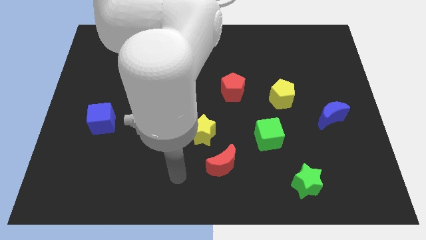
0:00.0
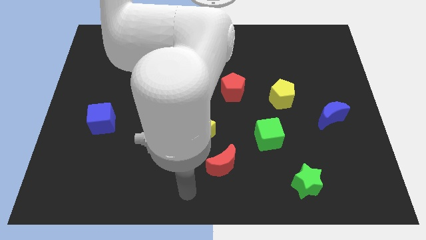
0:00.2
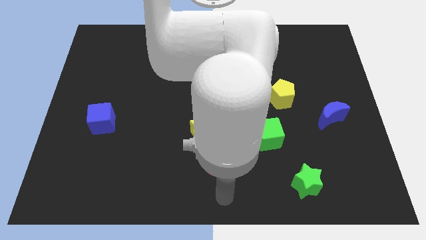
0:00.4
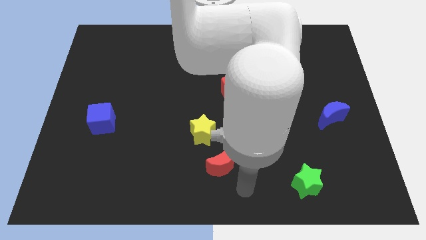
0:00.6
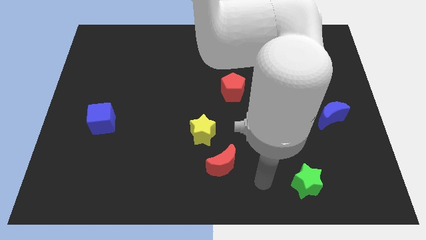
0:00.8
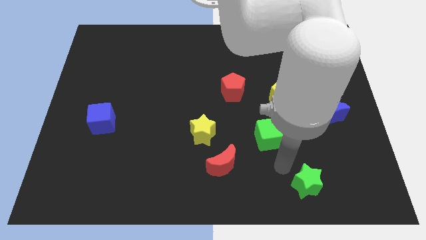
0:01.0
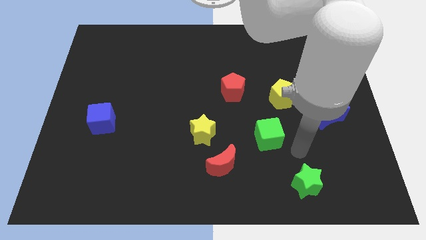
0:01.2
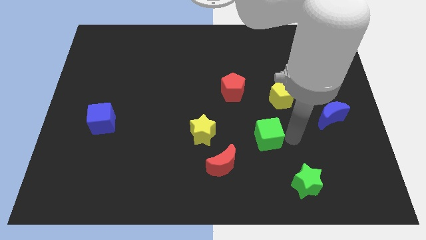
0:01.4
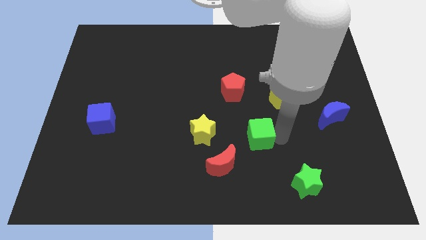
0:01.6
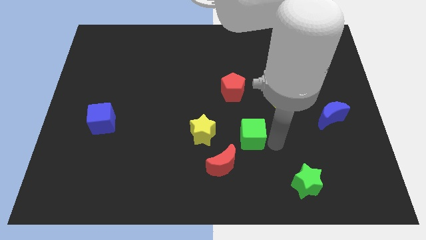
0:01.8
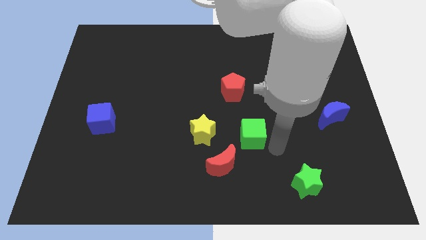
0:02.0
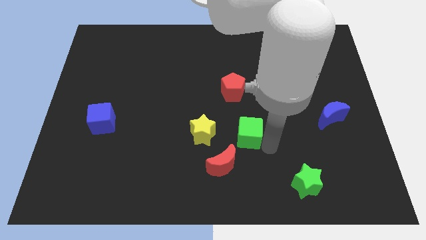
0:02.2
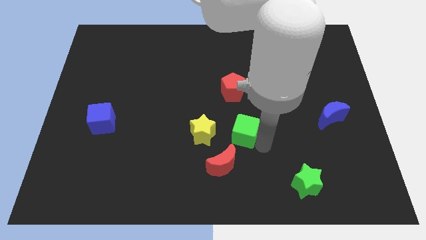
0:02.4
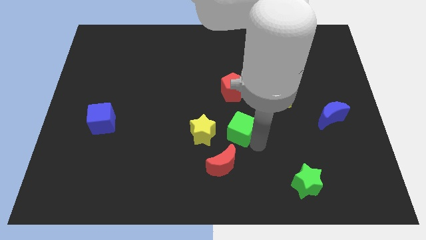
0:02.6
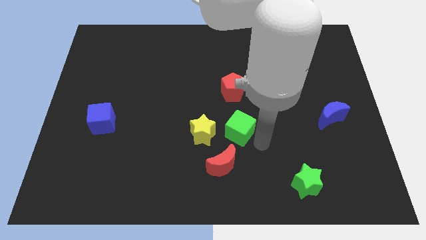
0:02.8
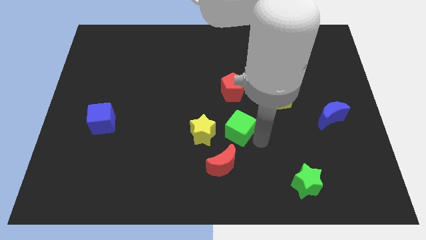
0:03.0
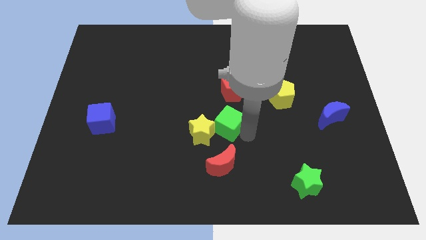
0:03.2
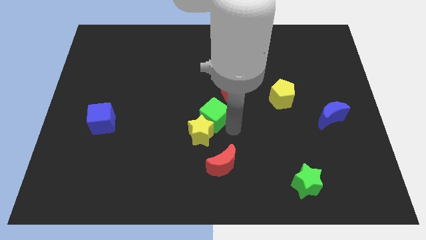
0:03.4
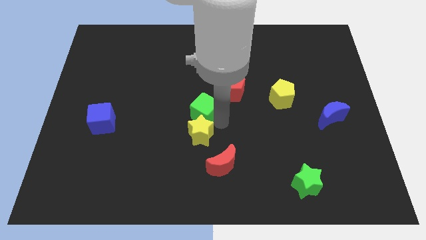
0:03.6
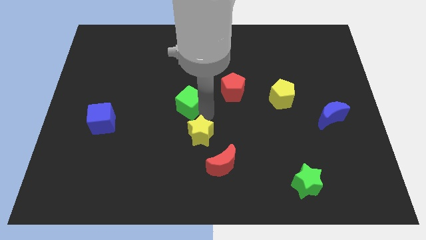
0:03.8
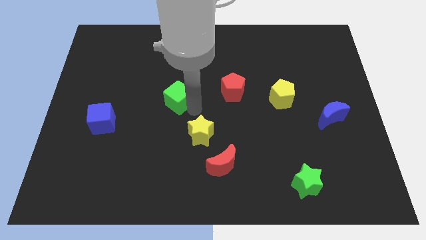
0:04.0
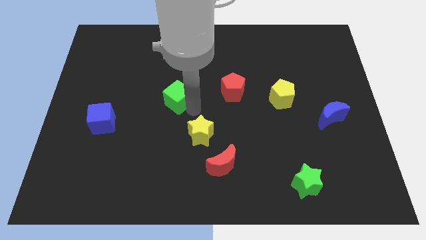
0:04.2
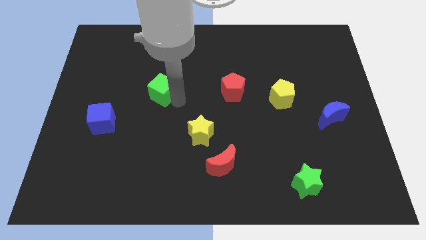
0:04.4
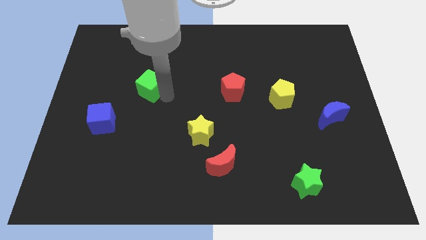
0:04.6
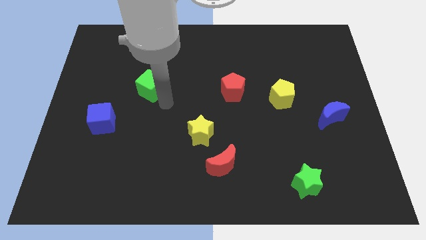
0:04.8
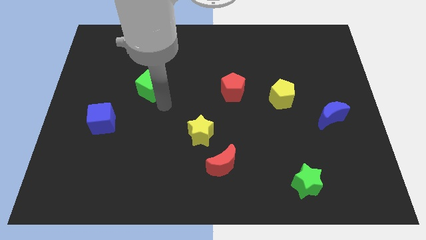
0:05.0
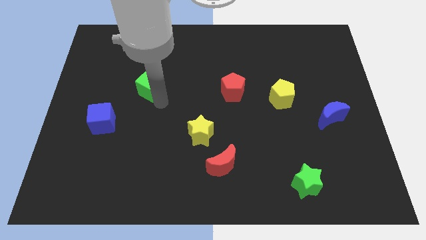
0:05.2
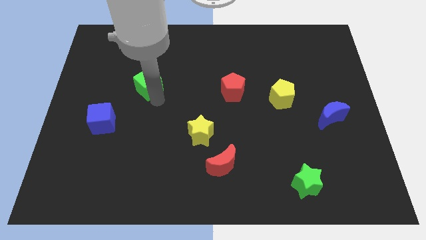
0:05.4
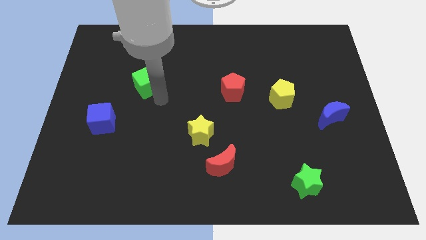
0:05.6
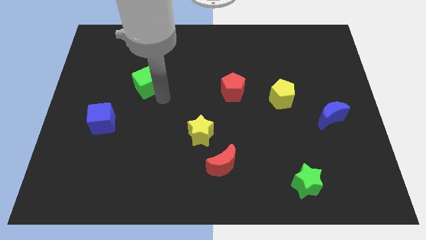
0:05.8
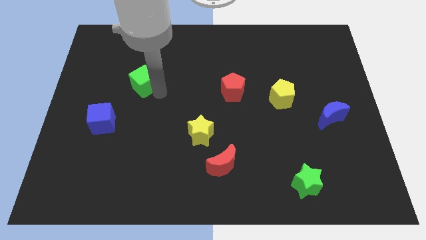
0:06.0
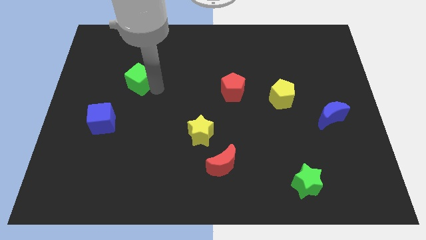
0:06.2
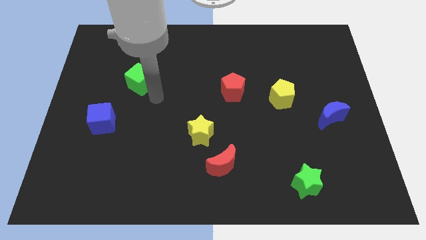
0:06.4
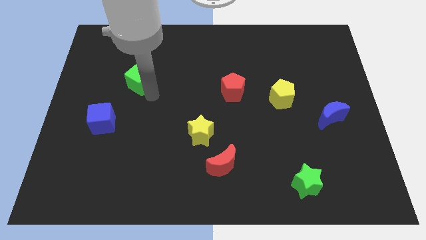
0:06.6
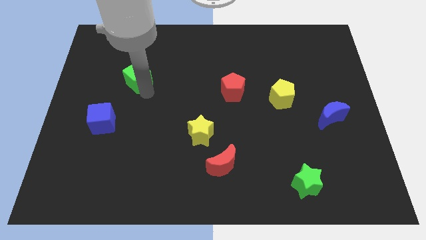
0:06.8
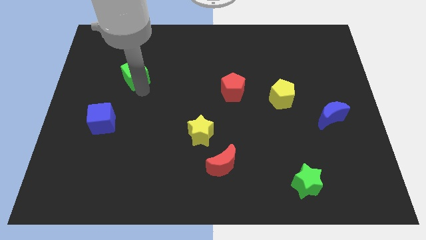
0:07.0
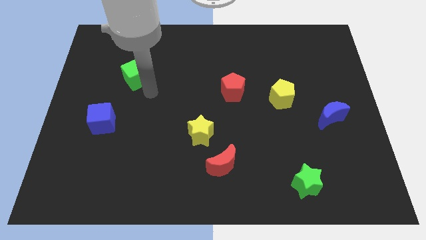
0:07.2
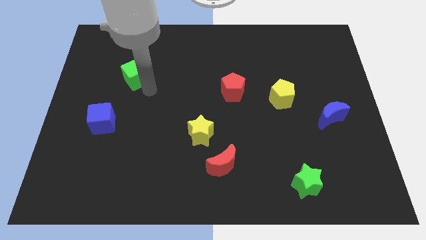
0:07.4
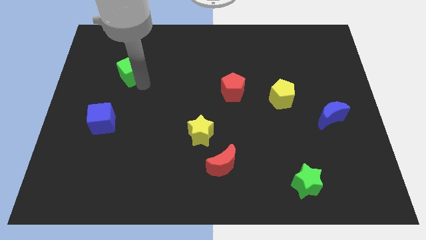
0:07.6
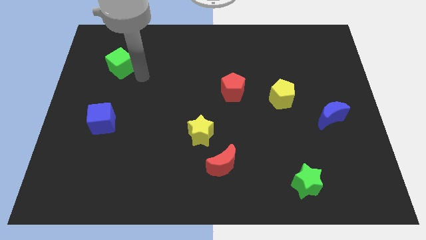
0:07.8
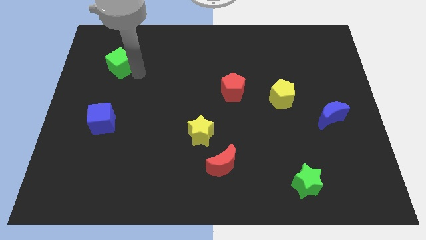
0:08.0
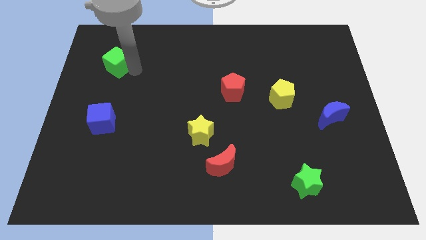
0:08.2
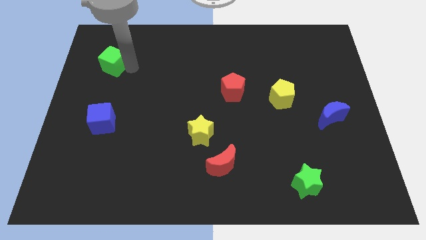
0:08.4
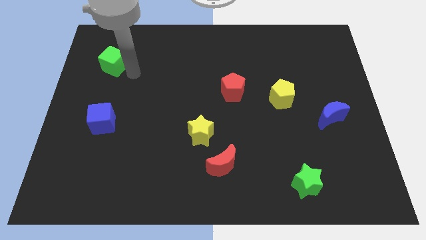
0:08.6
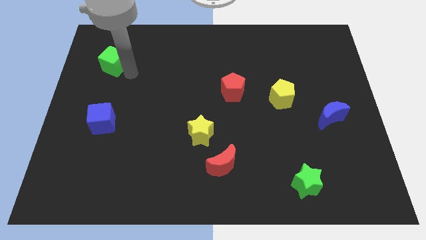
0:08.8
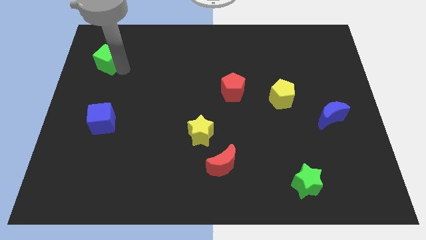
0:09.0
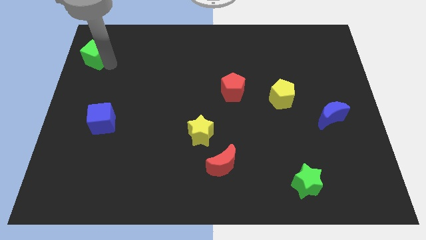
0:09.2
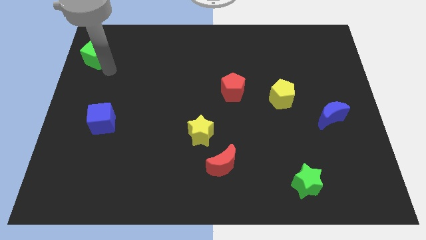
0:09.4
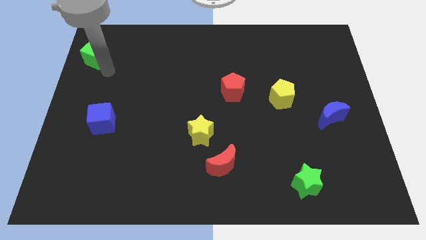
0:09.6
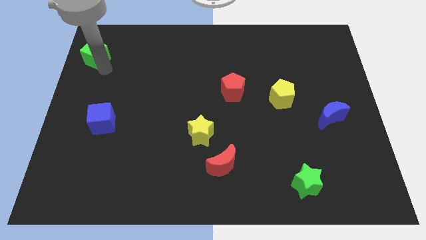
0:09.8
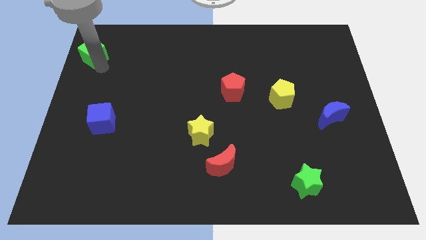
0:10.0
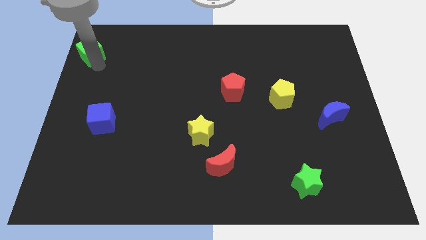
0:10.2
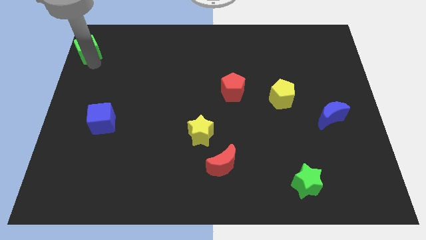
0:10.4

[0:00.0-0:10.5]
move the green cube to the top left

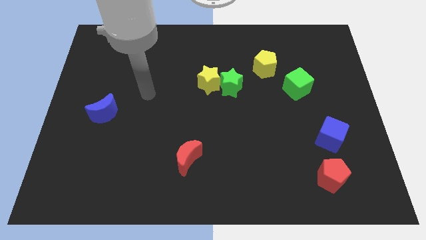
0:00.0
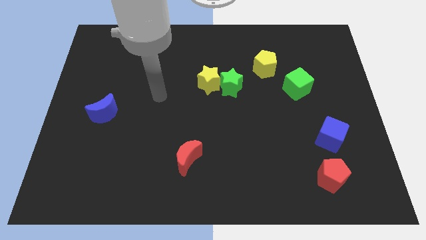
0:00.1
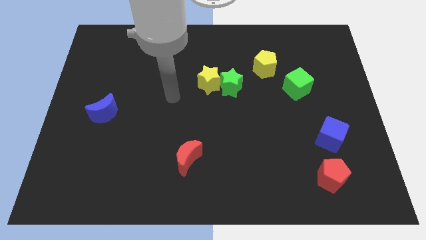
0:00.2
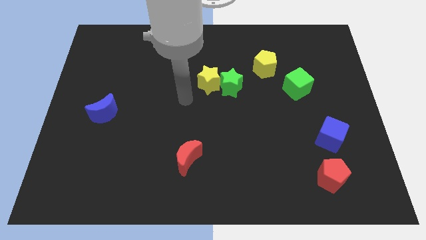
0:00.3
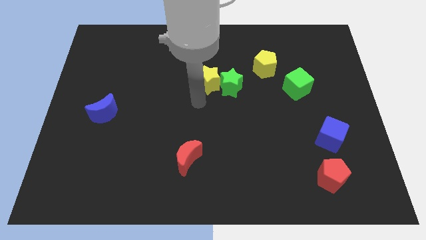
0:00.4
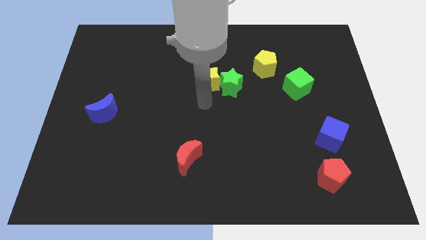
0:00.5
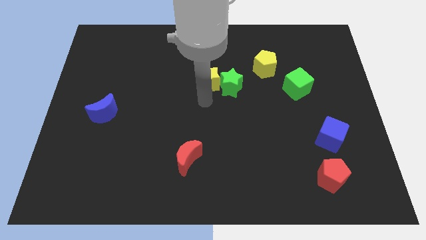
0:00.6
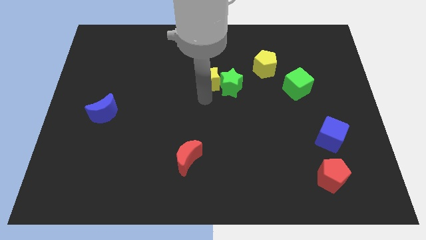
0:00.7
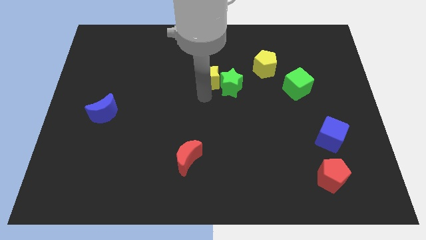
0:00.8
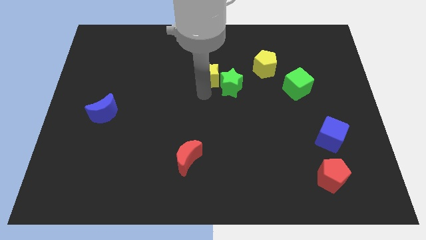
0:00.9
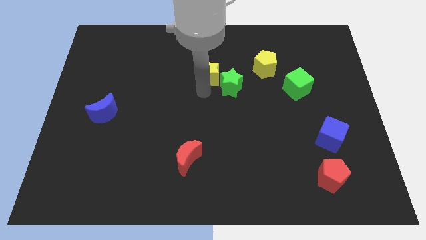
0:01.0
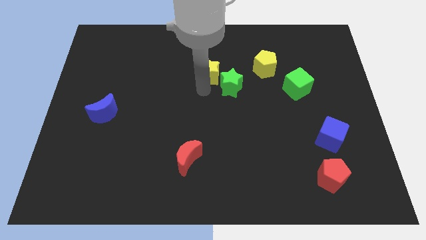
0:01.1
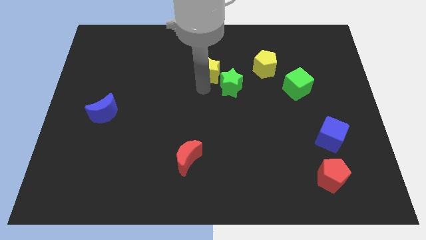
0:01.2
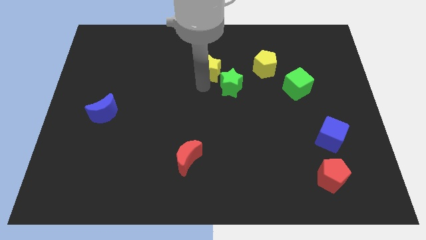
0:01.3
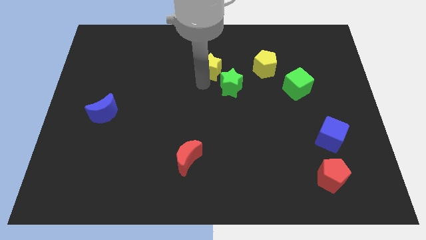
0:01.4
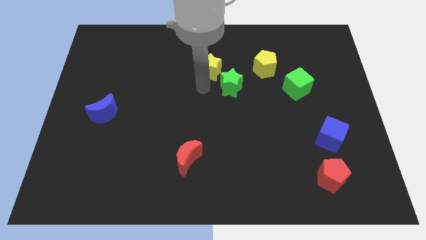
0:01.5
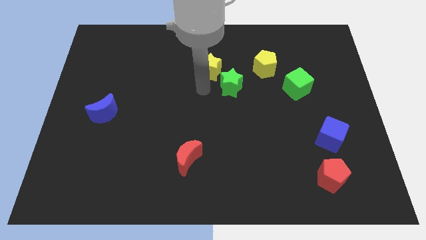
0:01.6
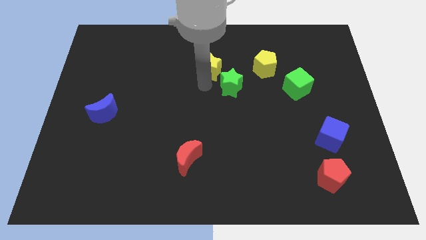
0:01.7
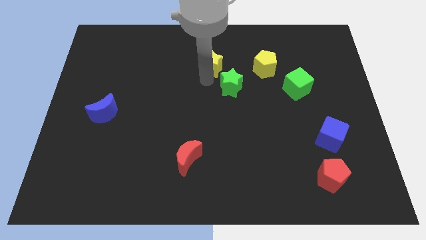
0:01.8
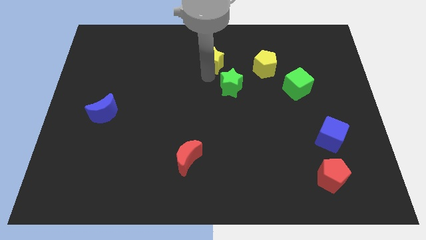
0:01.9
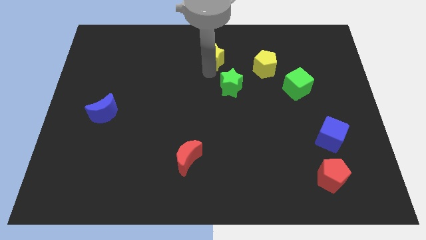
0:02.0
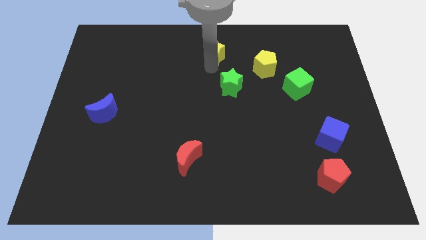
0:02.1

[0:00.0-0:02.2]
put the yellow star to the top
